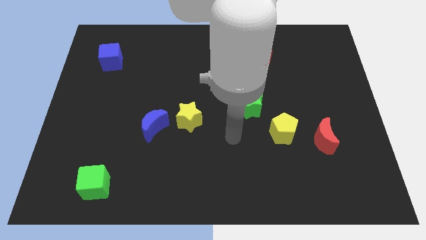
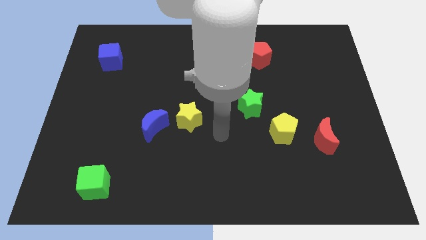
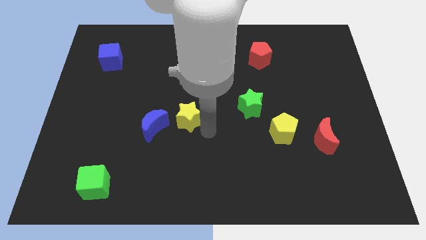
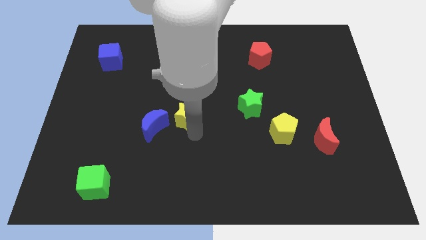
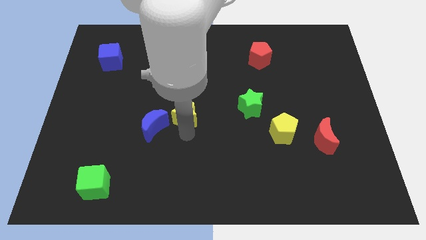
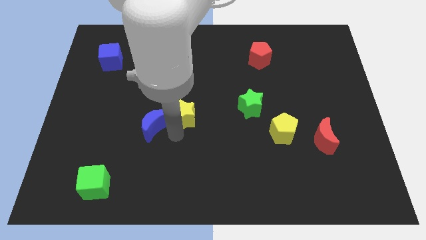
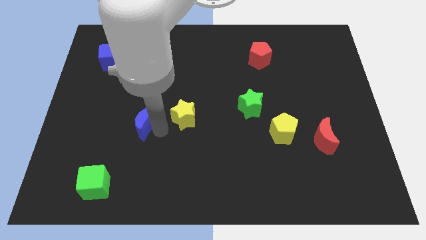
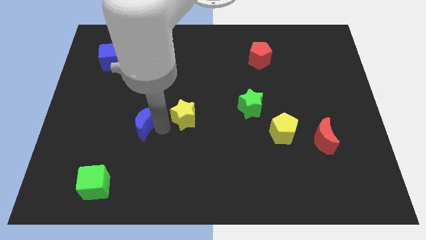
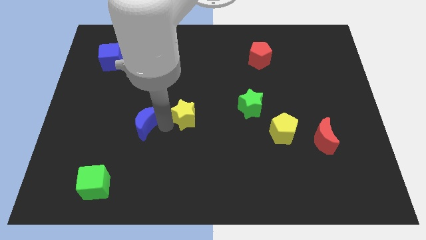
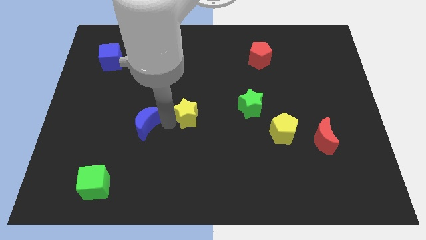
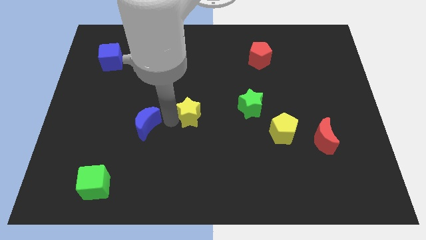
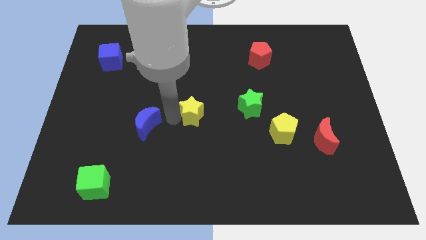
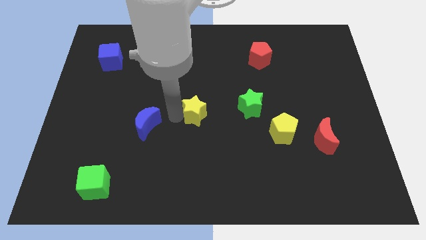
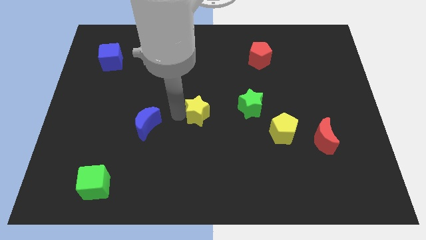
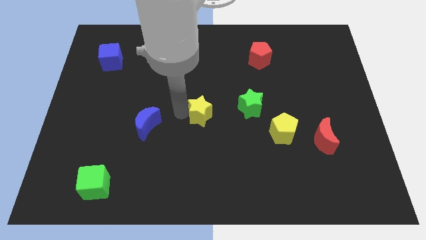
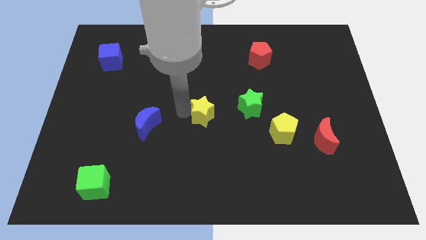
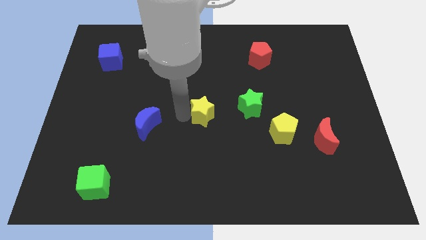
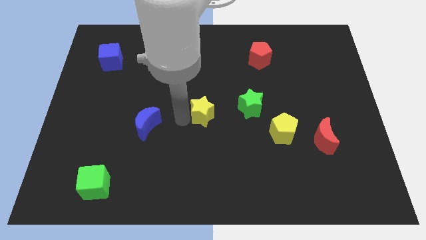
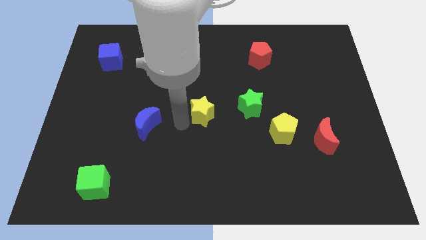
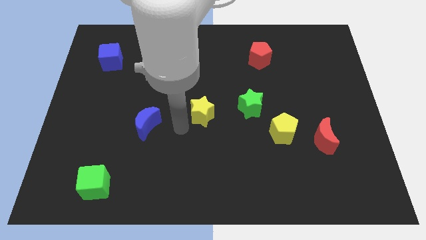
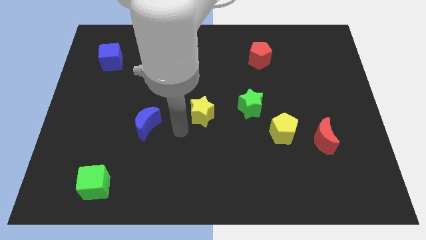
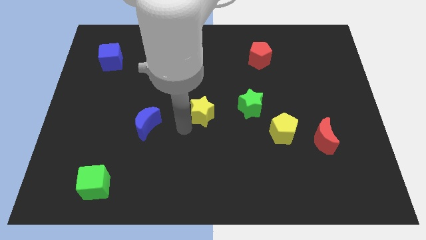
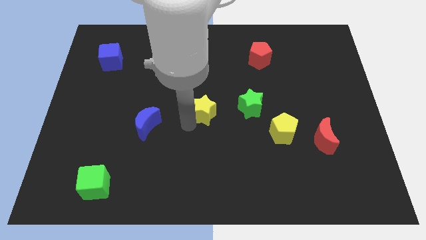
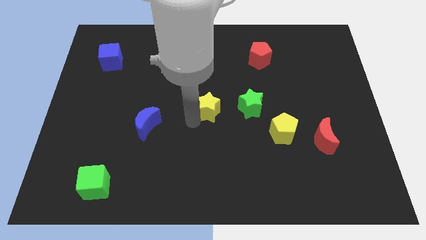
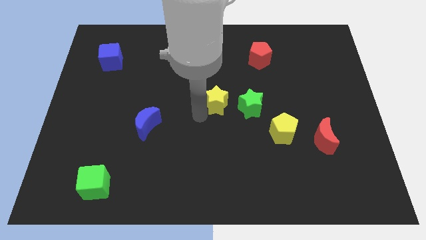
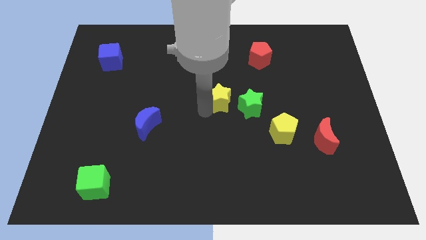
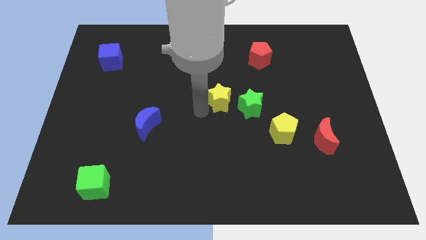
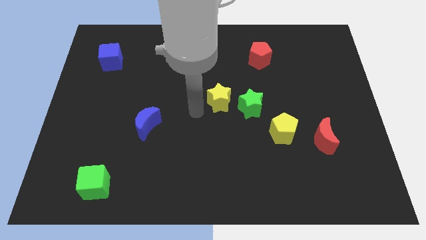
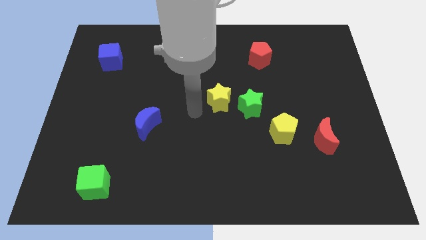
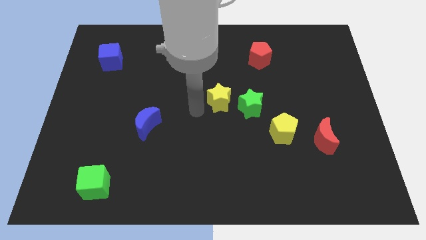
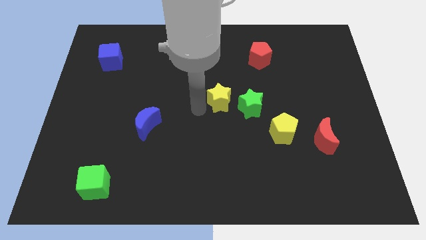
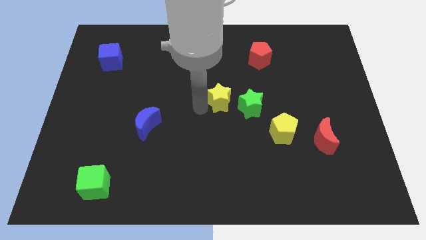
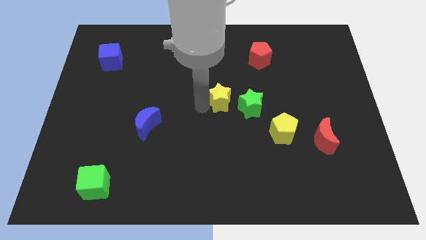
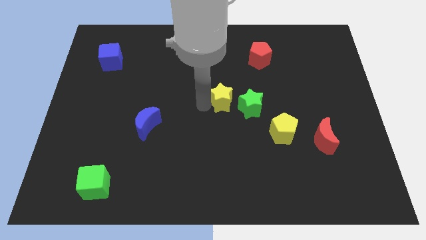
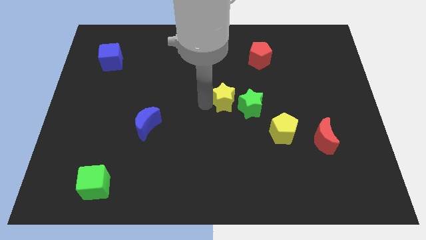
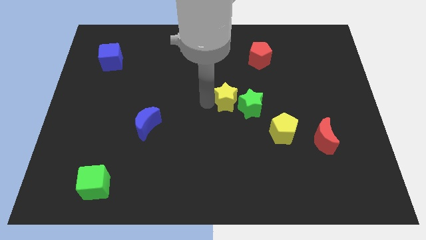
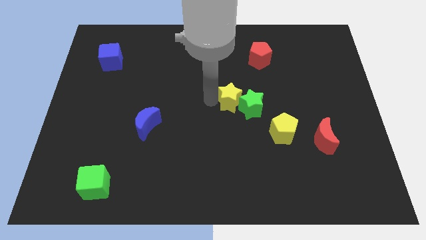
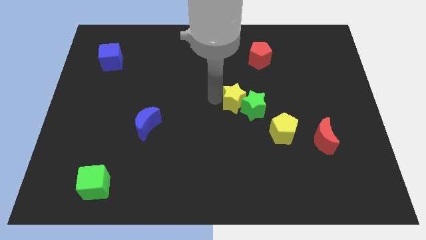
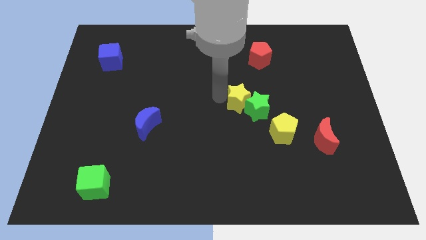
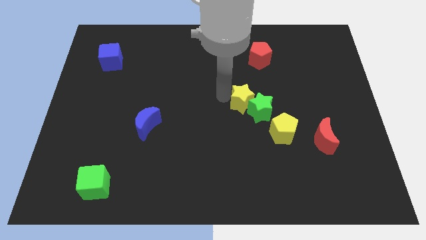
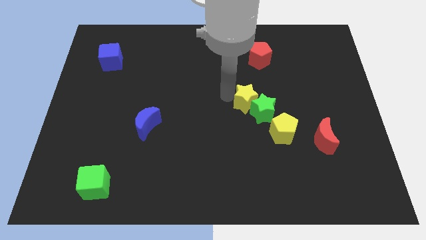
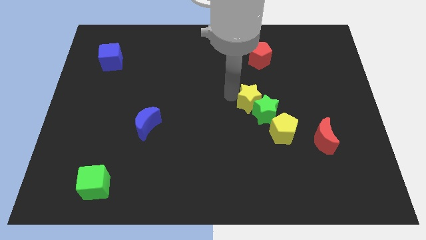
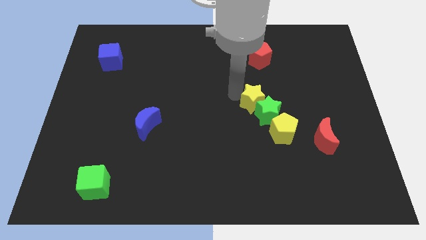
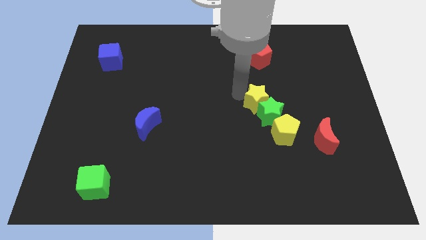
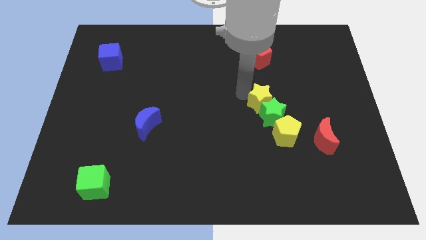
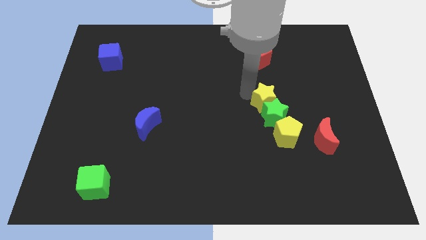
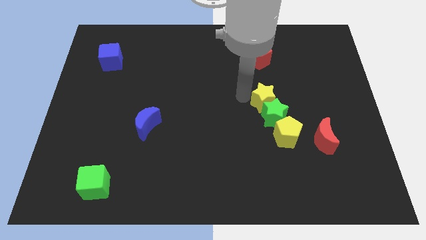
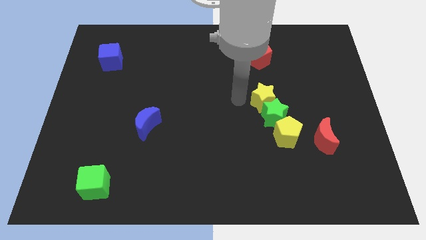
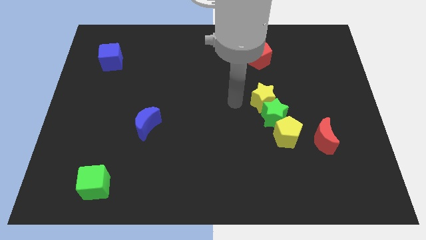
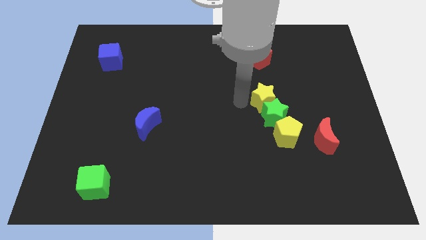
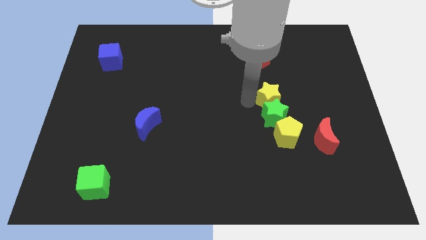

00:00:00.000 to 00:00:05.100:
push the yellow star to the top right of the green star

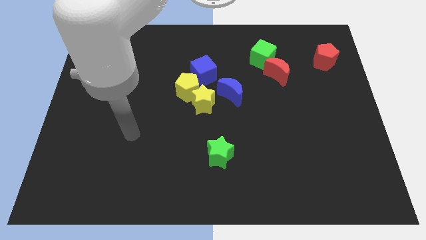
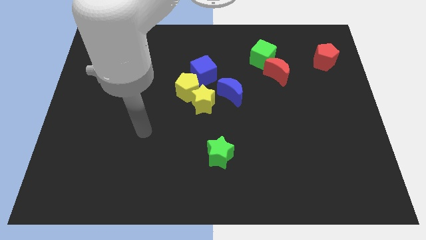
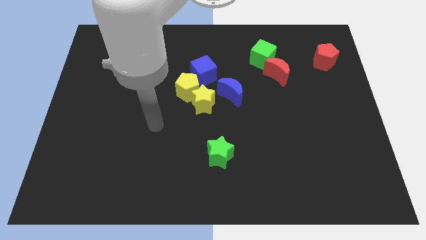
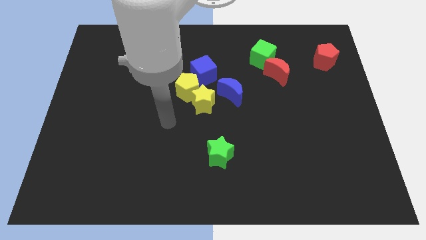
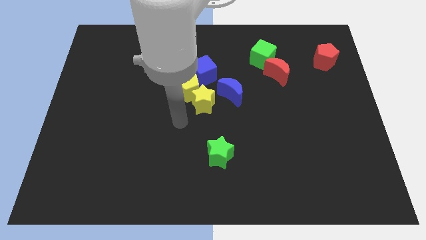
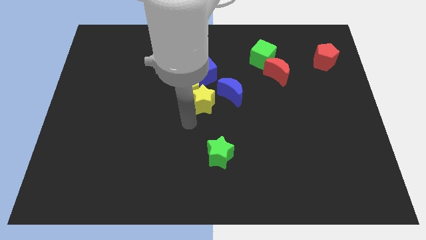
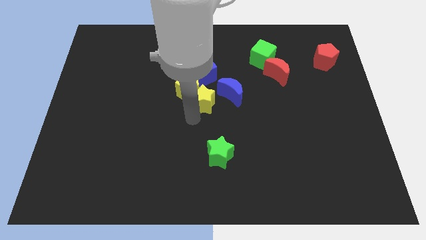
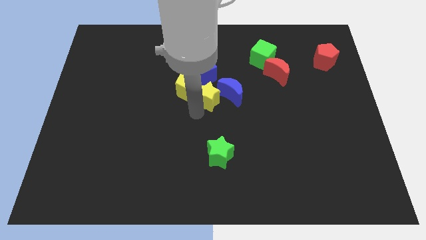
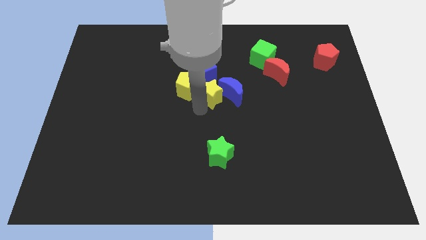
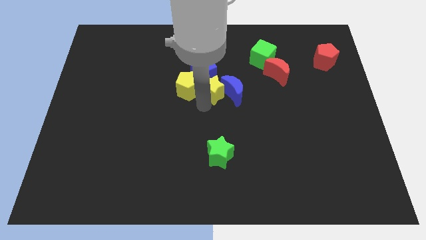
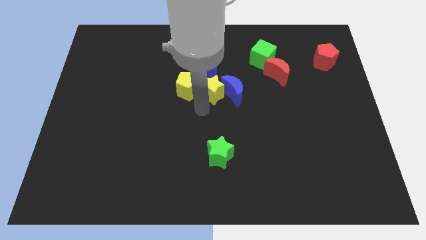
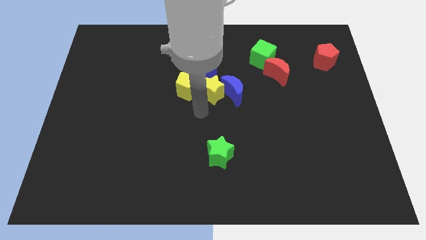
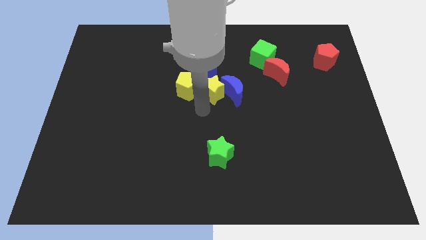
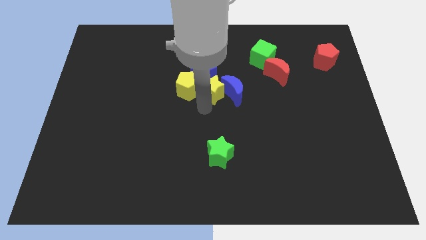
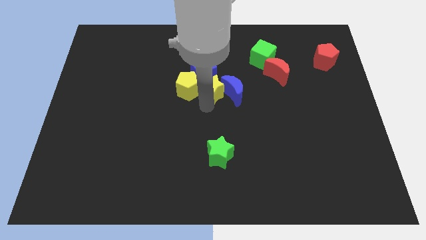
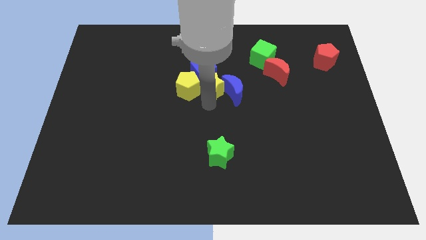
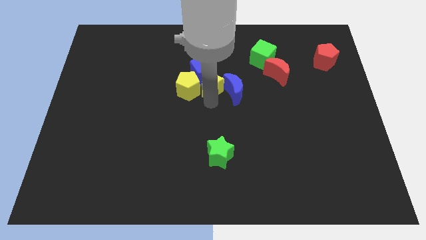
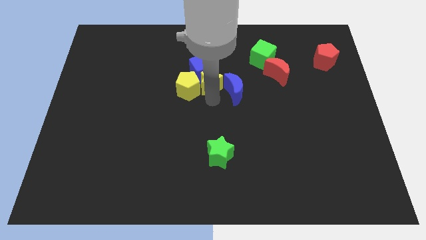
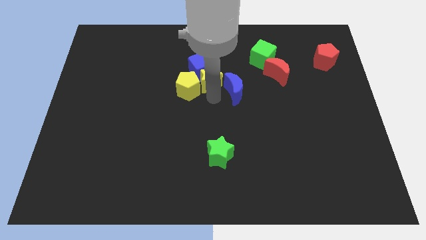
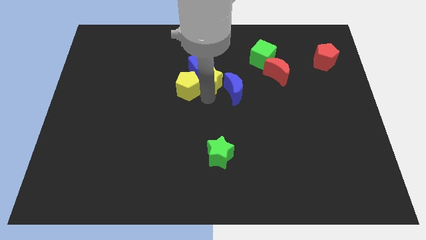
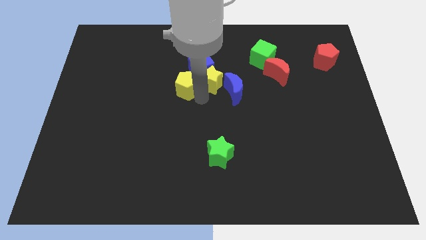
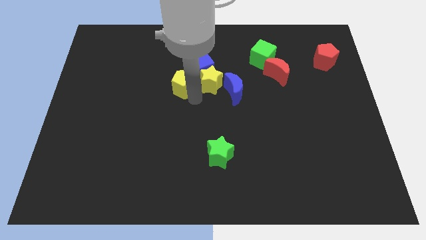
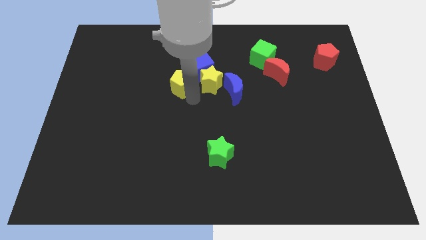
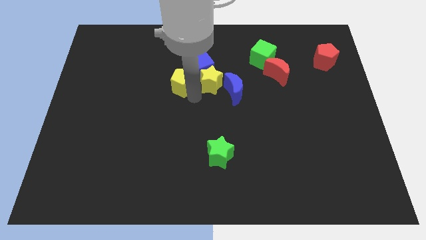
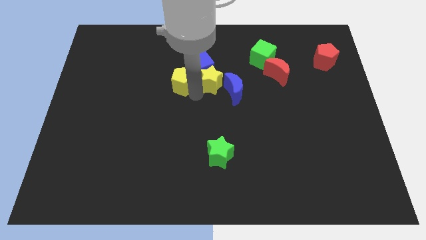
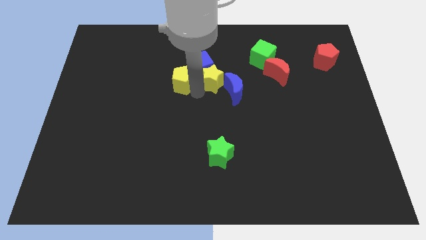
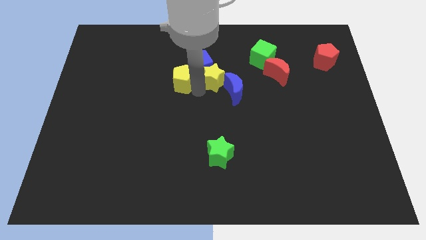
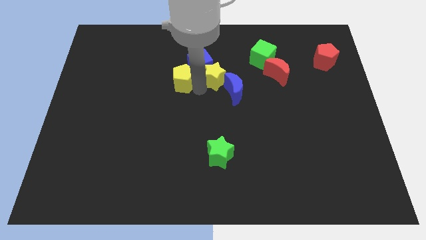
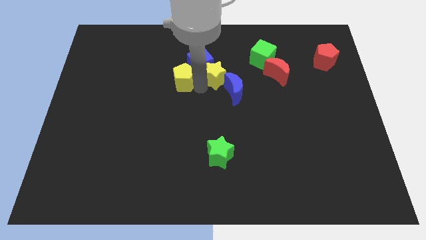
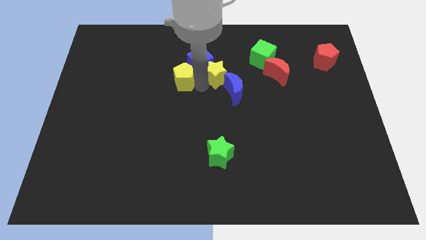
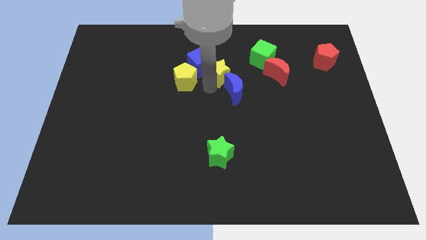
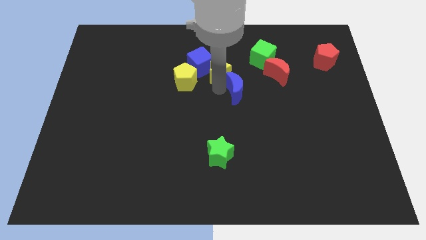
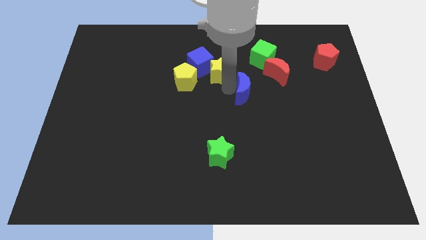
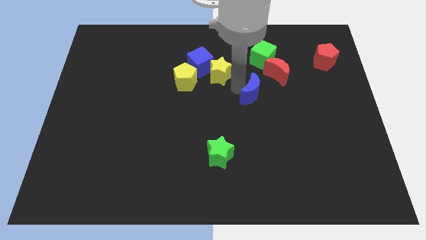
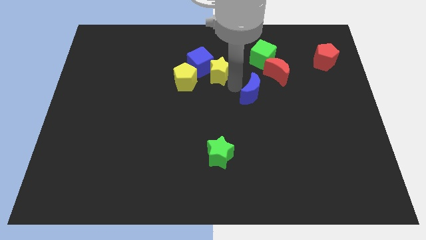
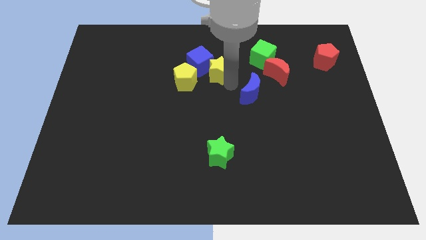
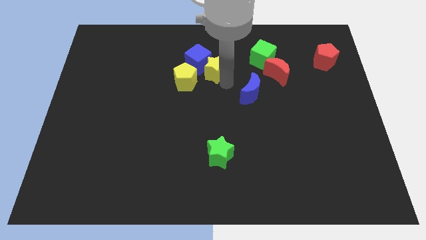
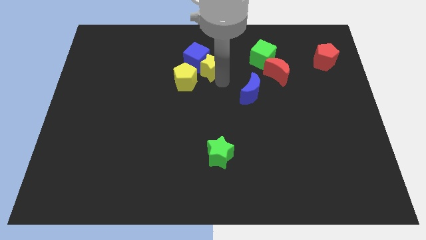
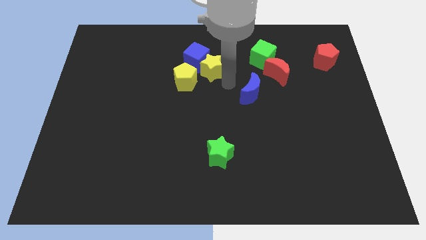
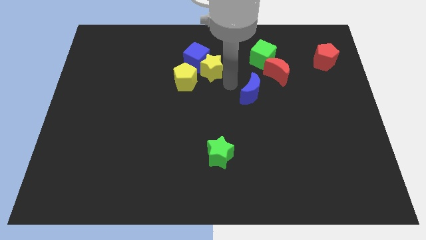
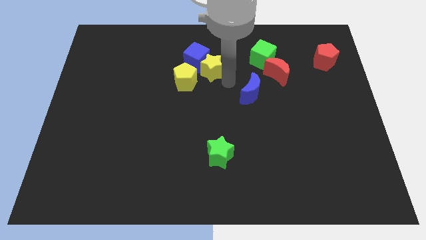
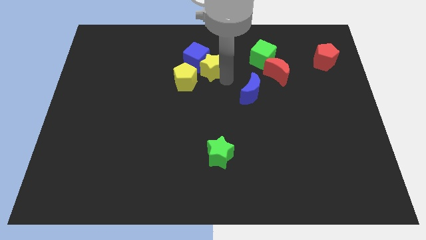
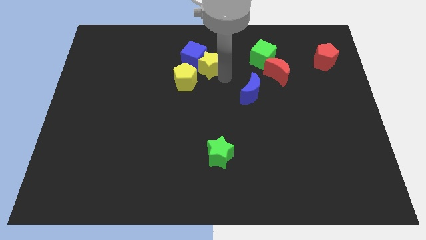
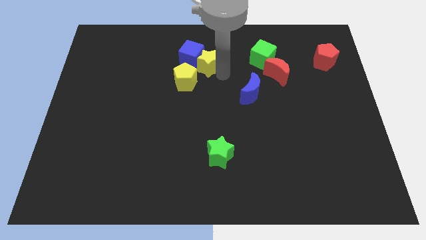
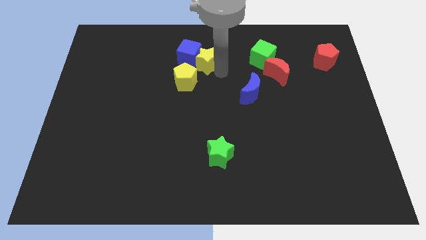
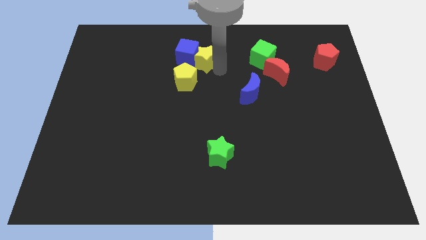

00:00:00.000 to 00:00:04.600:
slide the yellow star above the yellow pentagon
